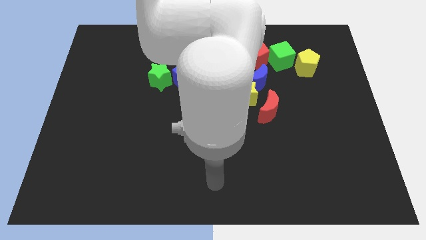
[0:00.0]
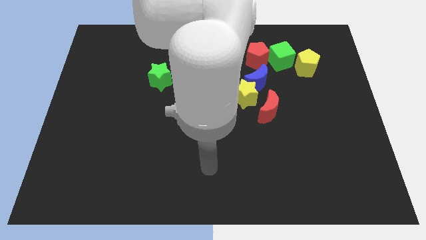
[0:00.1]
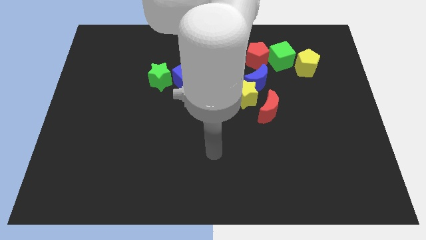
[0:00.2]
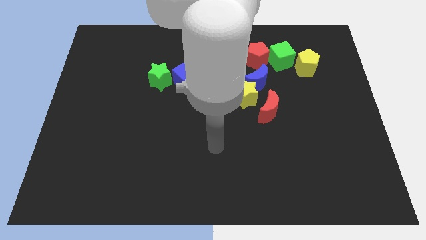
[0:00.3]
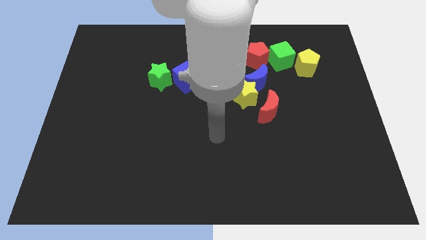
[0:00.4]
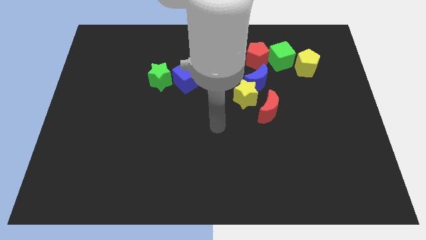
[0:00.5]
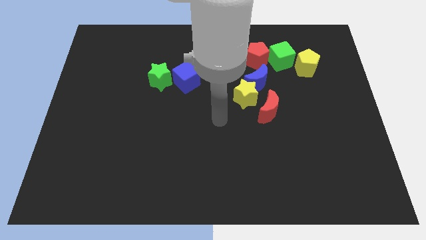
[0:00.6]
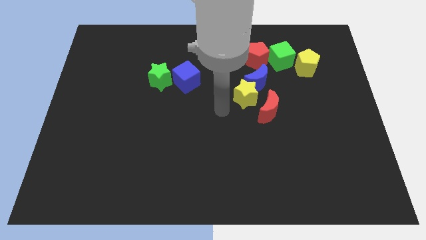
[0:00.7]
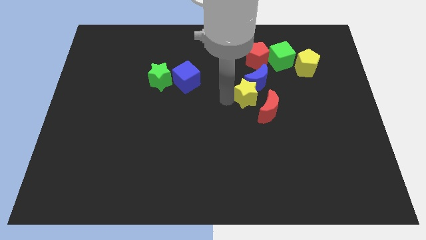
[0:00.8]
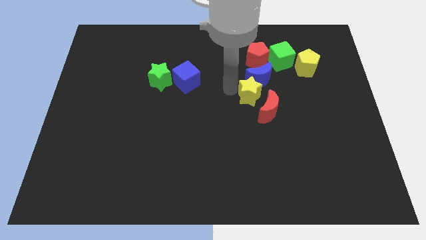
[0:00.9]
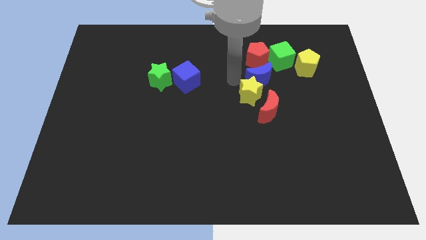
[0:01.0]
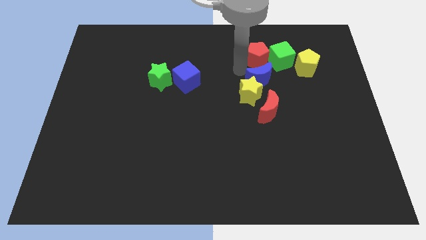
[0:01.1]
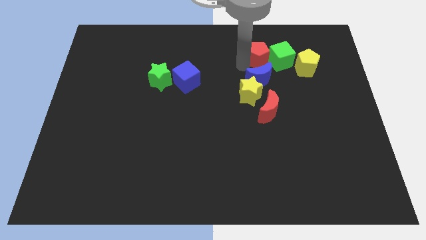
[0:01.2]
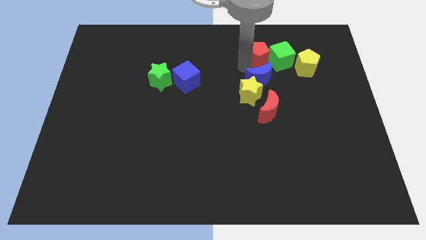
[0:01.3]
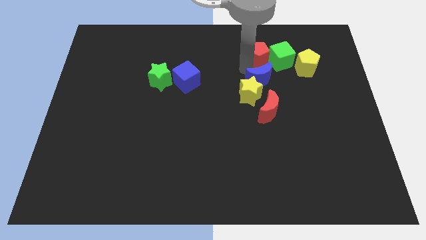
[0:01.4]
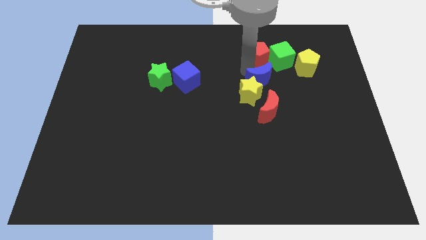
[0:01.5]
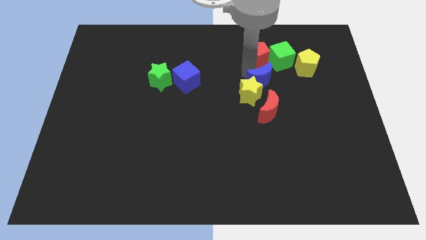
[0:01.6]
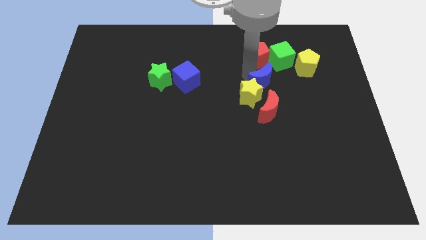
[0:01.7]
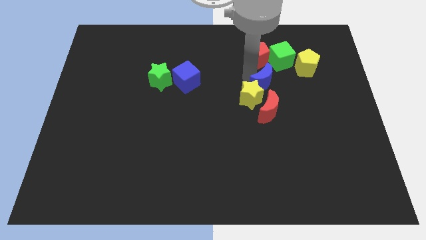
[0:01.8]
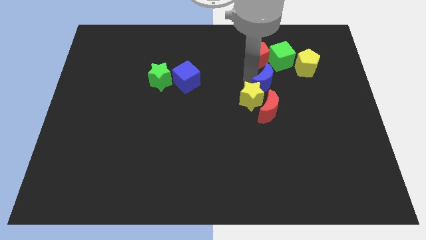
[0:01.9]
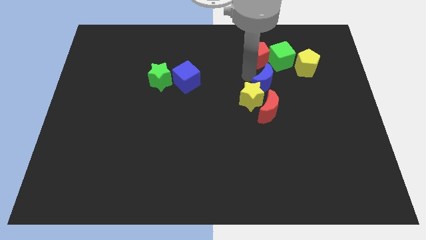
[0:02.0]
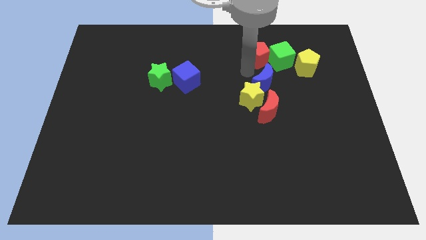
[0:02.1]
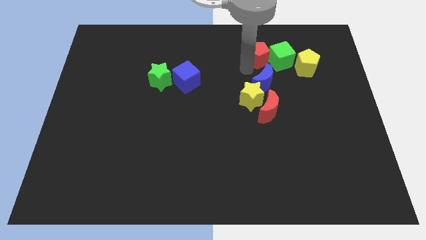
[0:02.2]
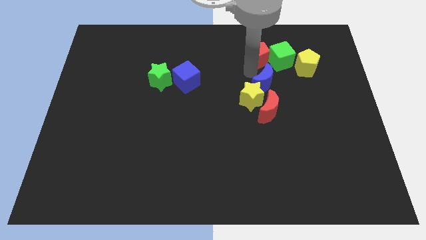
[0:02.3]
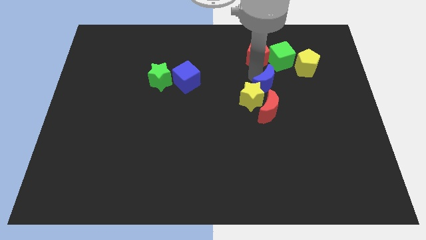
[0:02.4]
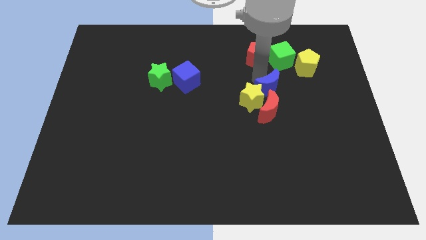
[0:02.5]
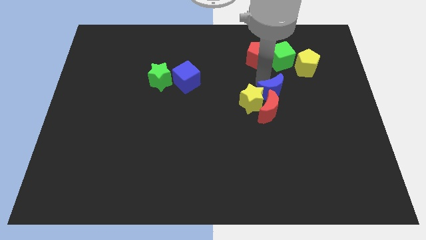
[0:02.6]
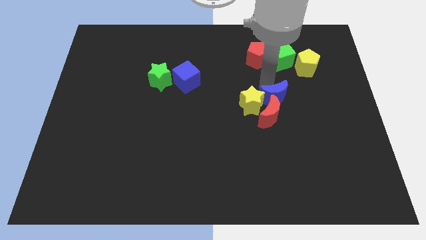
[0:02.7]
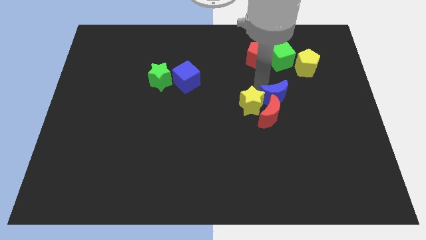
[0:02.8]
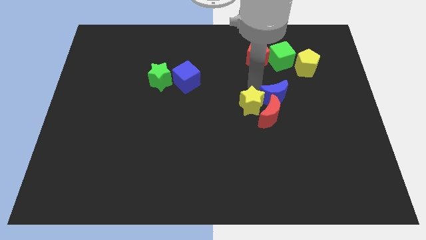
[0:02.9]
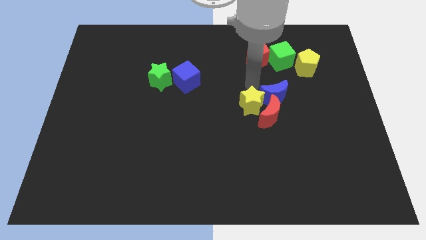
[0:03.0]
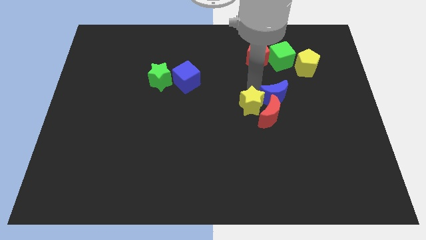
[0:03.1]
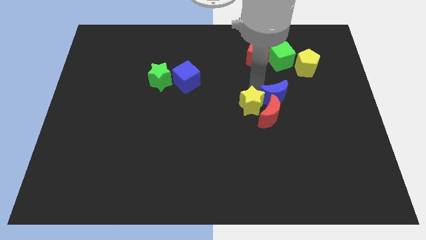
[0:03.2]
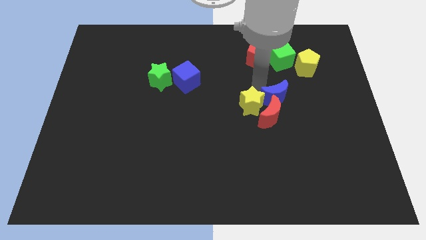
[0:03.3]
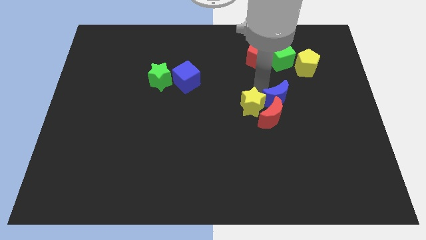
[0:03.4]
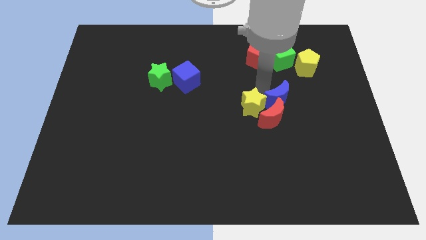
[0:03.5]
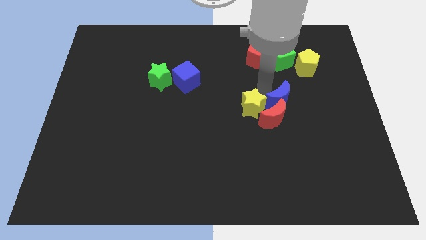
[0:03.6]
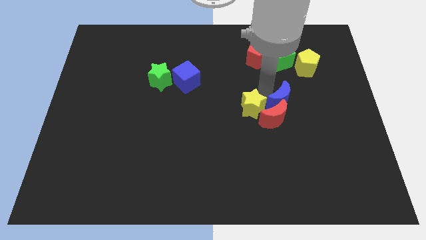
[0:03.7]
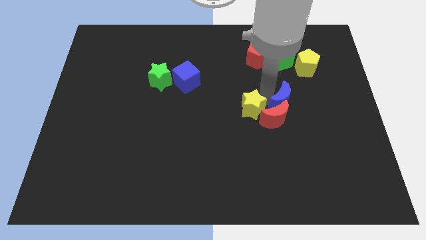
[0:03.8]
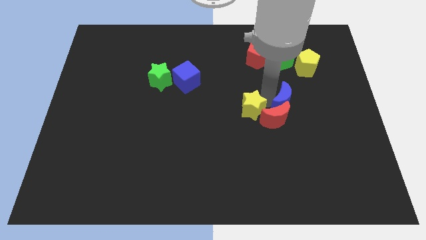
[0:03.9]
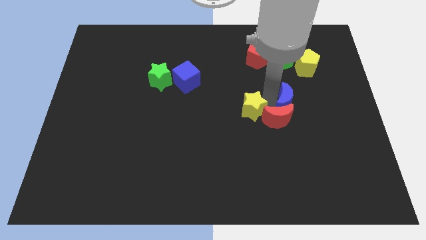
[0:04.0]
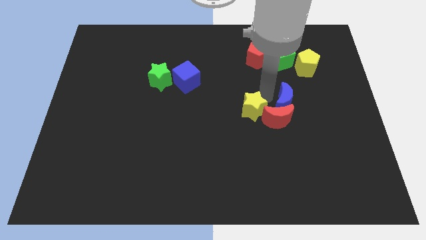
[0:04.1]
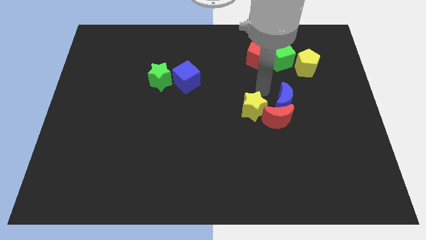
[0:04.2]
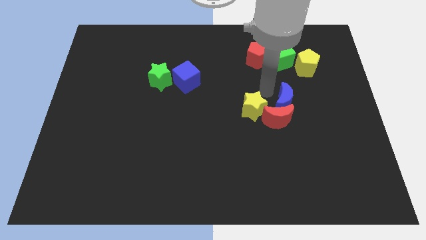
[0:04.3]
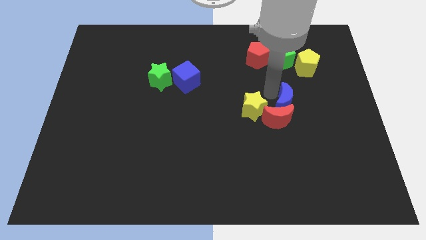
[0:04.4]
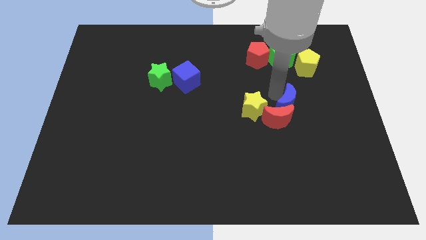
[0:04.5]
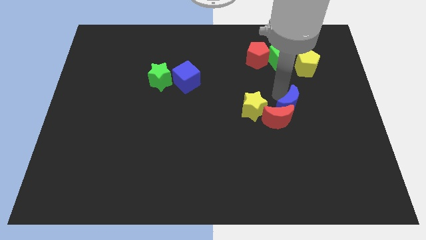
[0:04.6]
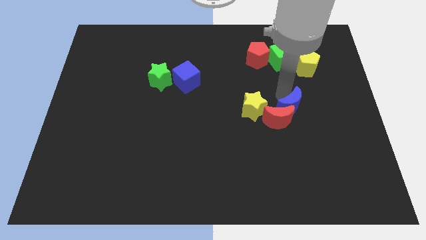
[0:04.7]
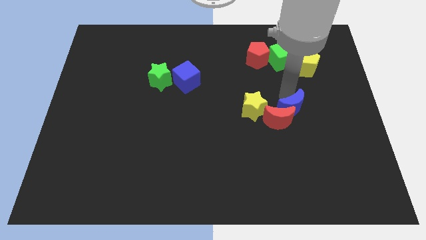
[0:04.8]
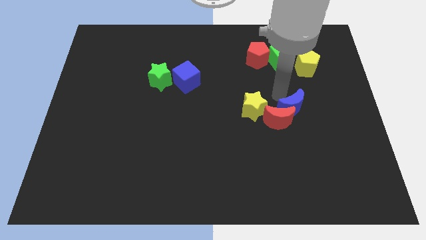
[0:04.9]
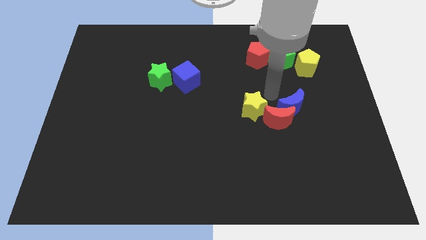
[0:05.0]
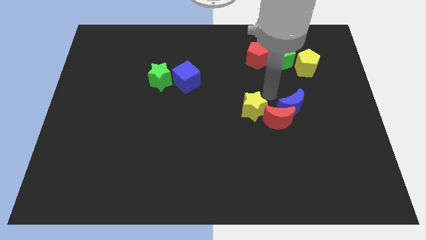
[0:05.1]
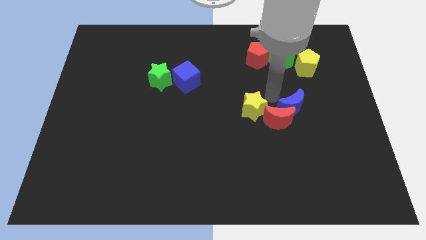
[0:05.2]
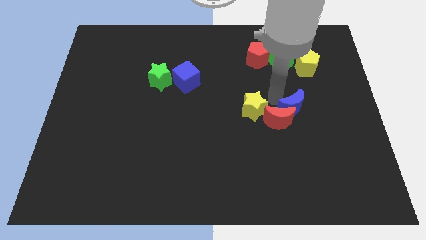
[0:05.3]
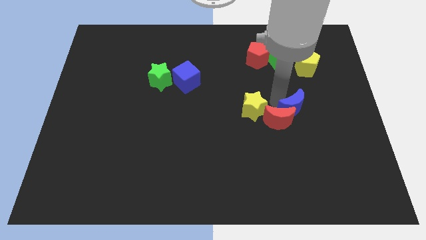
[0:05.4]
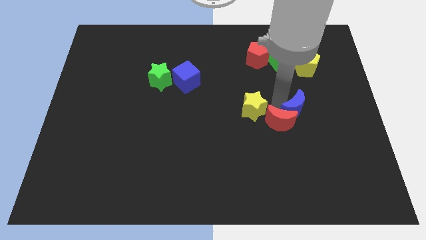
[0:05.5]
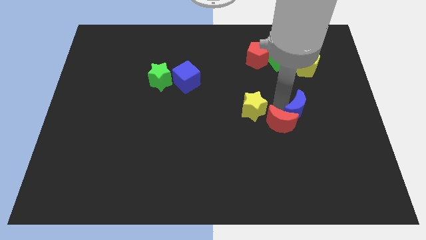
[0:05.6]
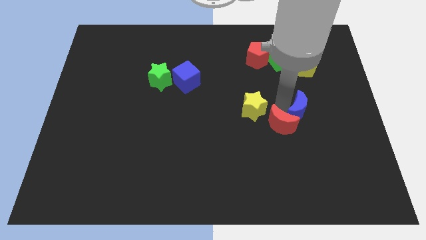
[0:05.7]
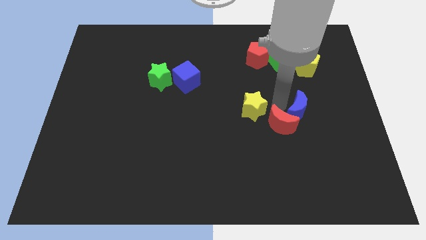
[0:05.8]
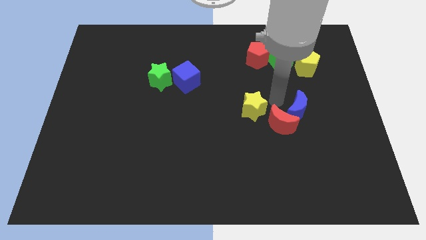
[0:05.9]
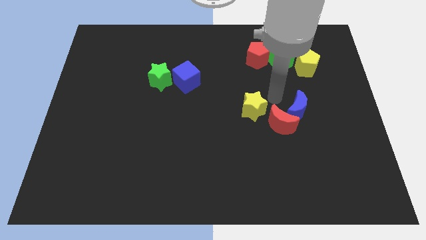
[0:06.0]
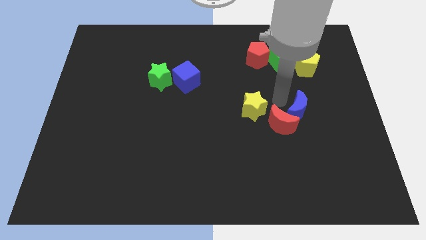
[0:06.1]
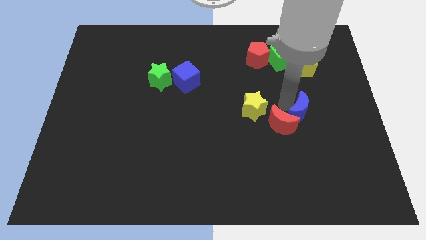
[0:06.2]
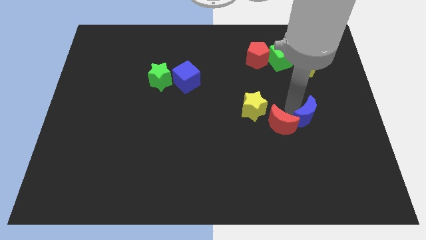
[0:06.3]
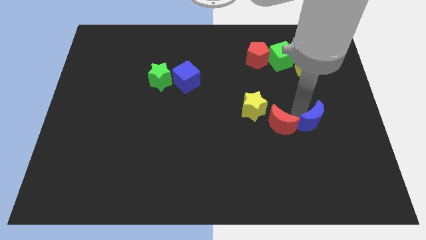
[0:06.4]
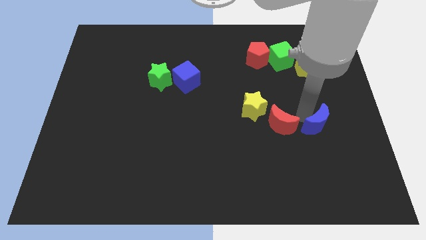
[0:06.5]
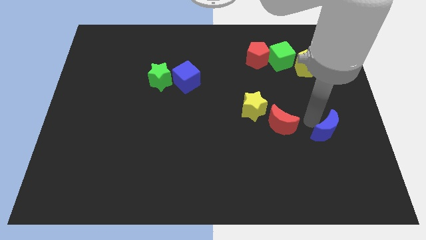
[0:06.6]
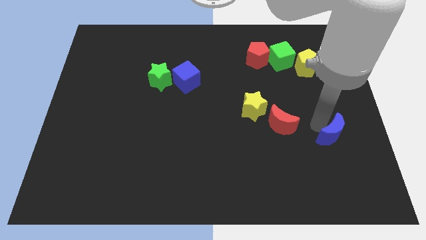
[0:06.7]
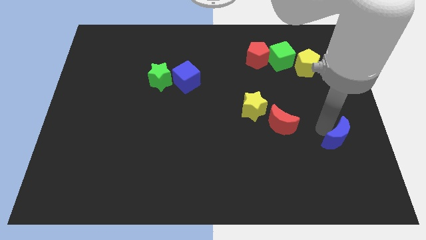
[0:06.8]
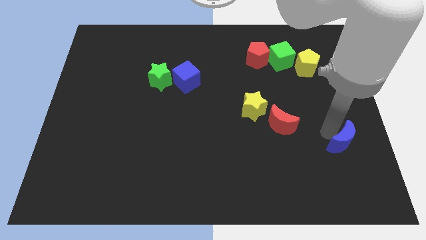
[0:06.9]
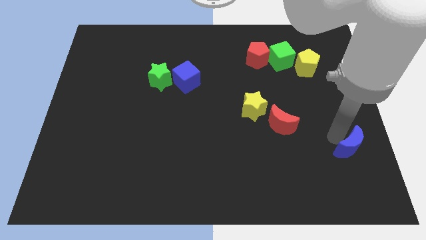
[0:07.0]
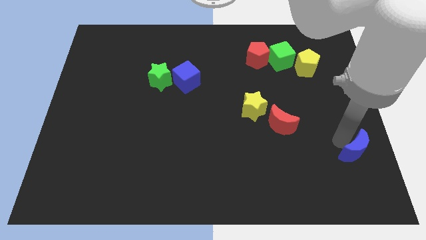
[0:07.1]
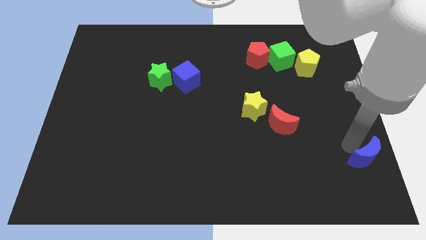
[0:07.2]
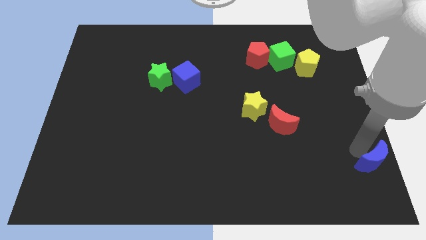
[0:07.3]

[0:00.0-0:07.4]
push the blue moon to the lower right corner

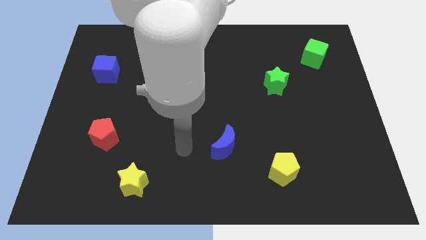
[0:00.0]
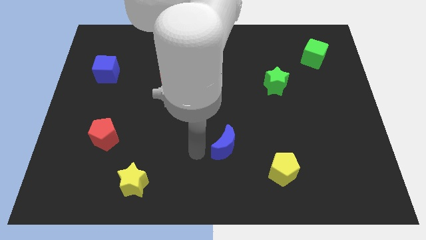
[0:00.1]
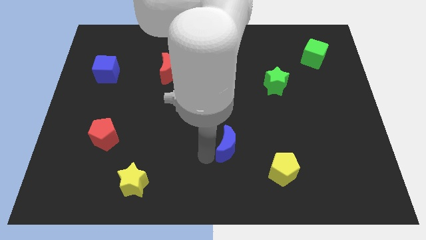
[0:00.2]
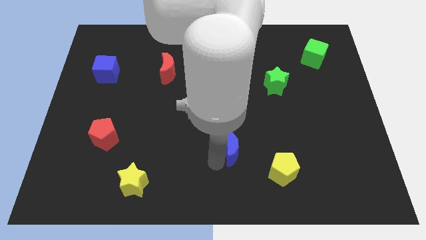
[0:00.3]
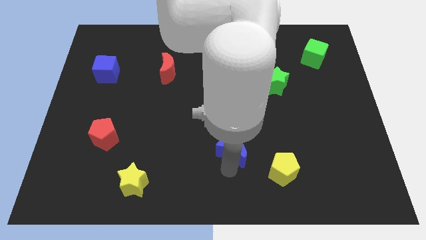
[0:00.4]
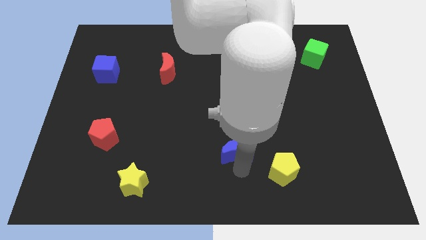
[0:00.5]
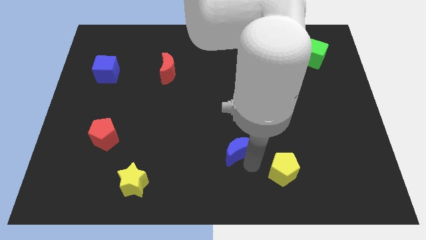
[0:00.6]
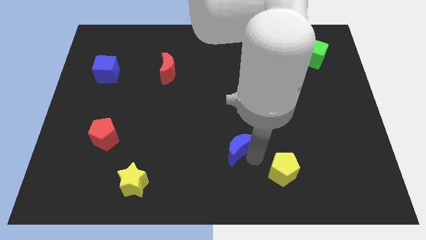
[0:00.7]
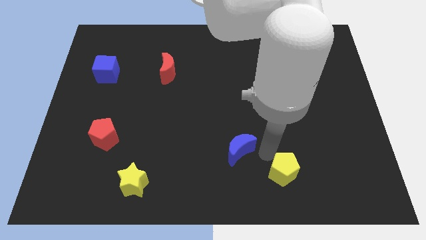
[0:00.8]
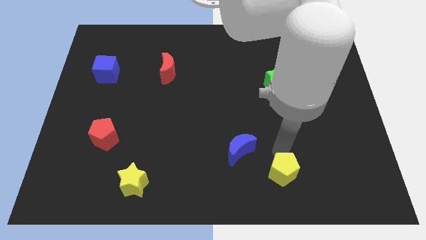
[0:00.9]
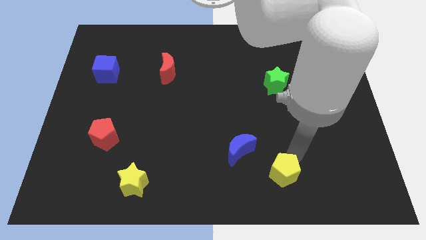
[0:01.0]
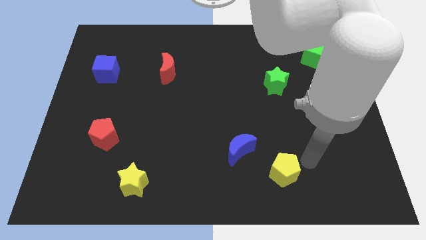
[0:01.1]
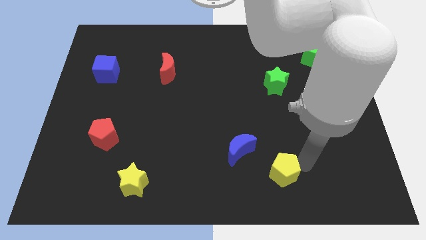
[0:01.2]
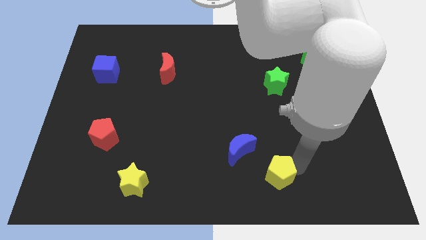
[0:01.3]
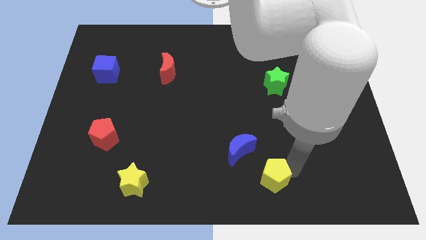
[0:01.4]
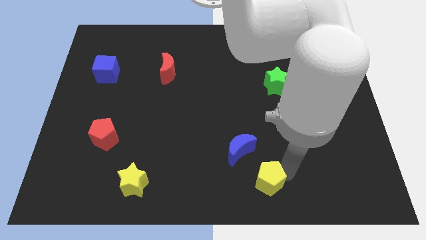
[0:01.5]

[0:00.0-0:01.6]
slide the yellow pentagon to the bottom
